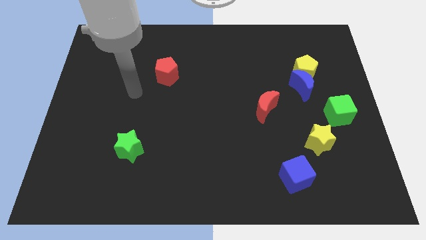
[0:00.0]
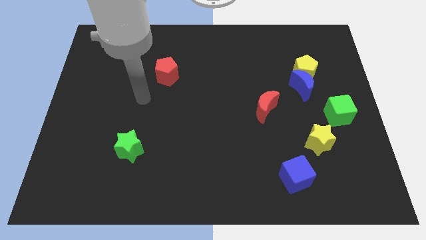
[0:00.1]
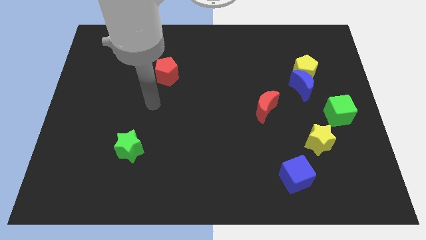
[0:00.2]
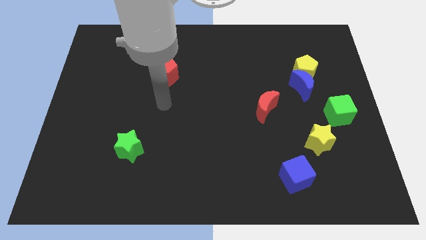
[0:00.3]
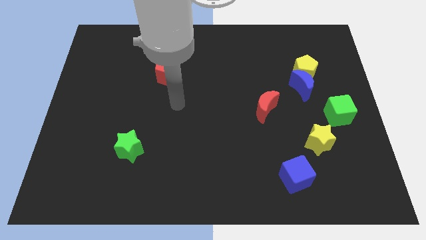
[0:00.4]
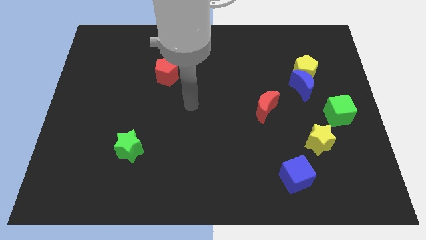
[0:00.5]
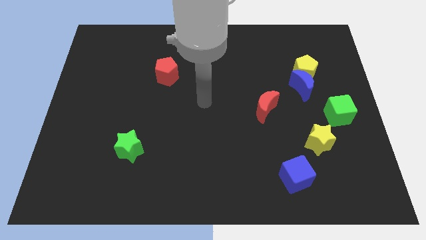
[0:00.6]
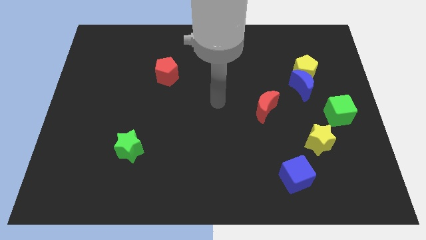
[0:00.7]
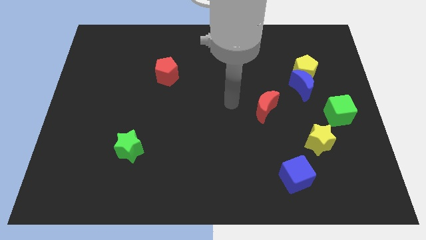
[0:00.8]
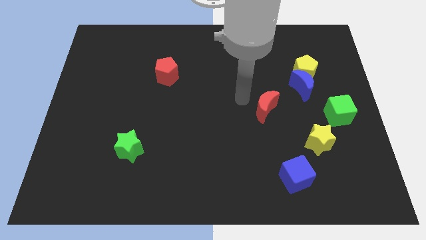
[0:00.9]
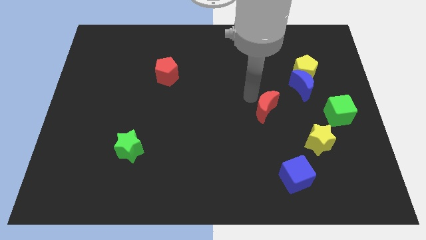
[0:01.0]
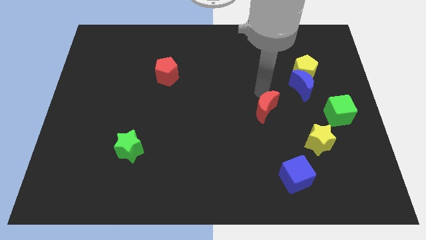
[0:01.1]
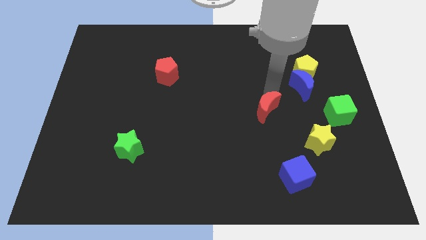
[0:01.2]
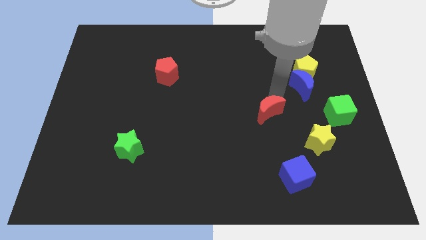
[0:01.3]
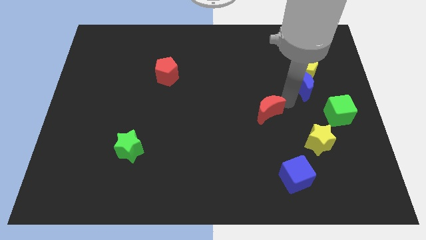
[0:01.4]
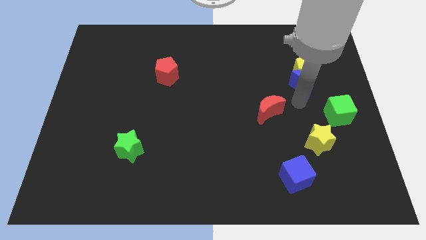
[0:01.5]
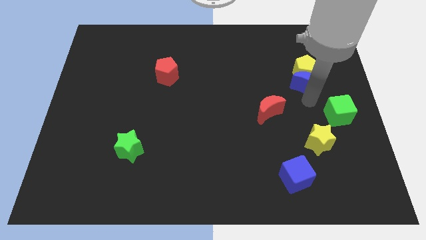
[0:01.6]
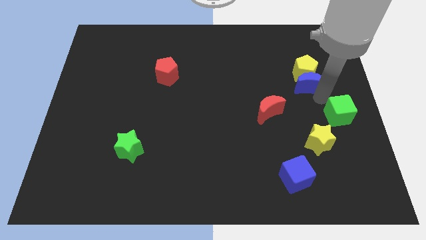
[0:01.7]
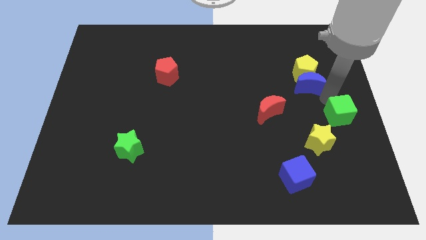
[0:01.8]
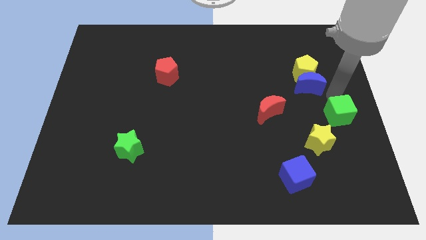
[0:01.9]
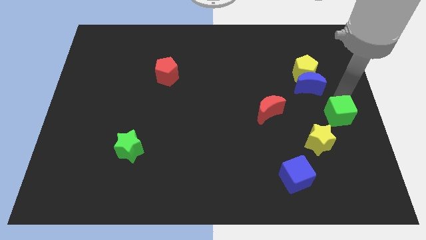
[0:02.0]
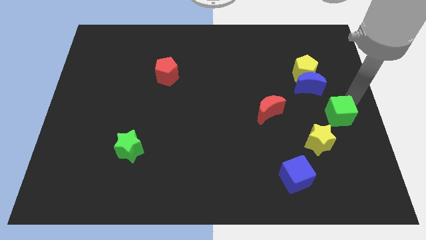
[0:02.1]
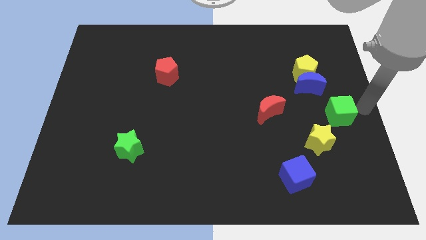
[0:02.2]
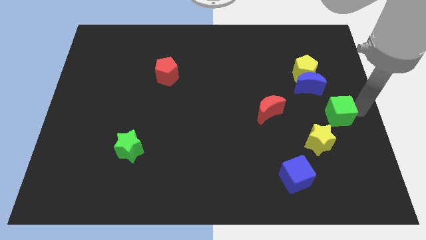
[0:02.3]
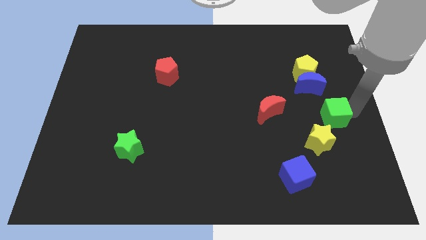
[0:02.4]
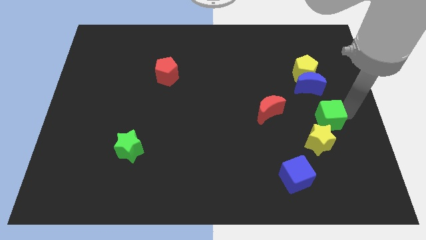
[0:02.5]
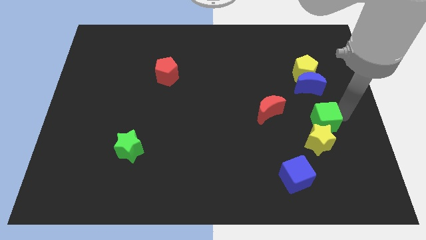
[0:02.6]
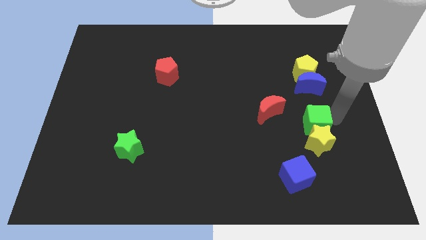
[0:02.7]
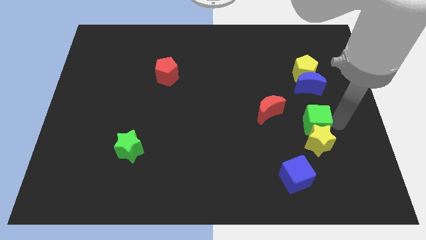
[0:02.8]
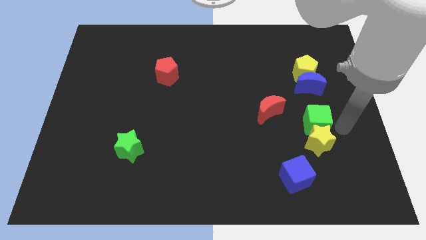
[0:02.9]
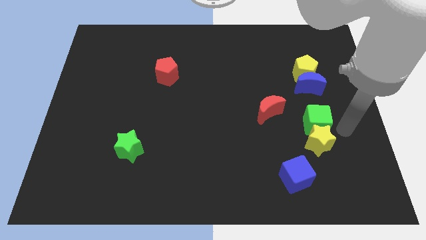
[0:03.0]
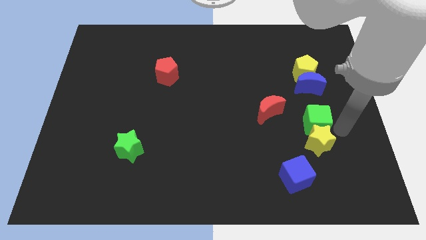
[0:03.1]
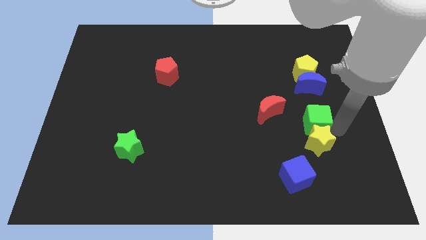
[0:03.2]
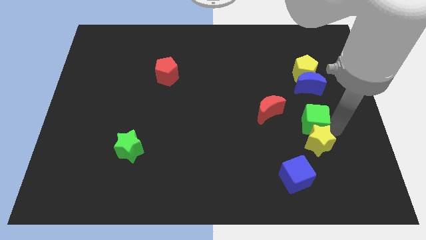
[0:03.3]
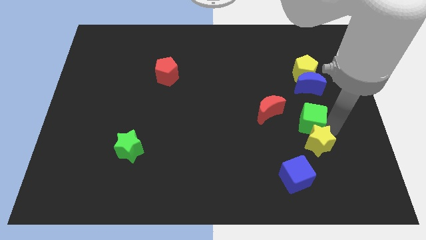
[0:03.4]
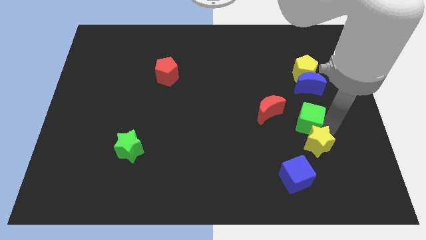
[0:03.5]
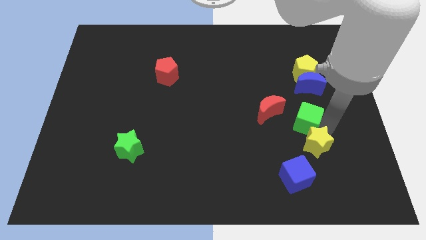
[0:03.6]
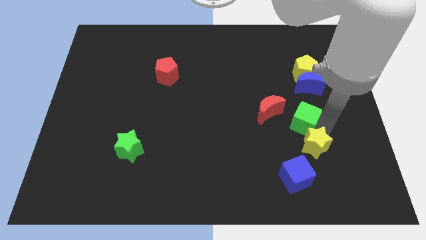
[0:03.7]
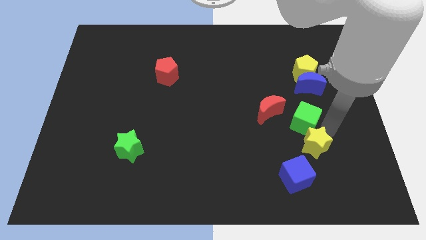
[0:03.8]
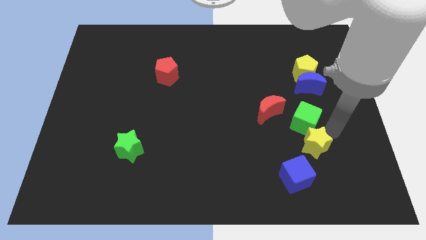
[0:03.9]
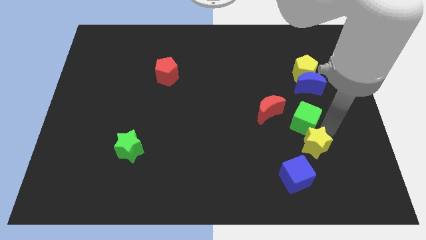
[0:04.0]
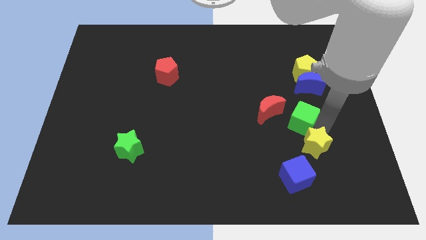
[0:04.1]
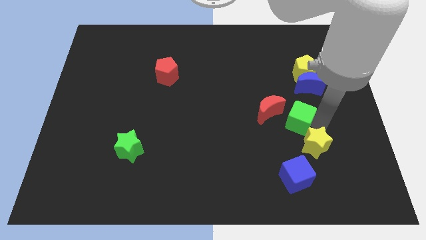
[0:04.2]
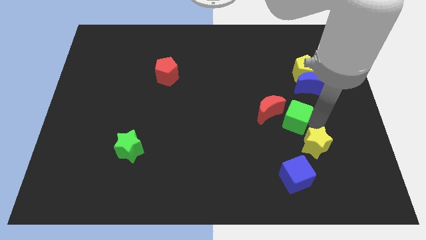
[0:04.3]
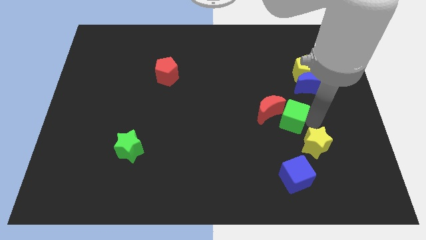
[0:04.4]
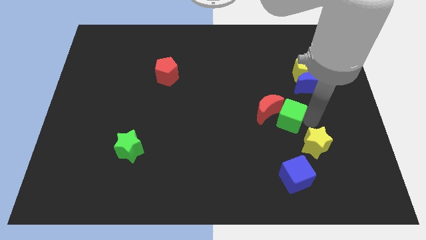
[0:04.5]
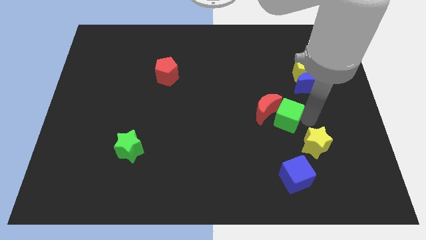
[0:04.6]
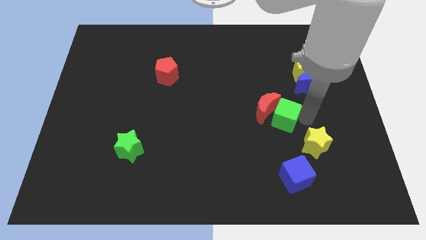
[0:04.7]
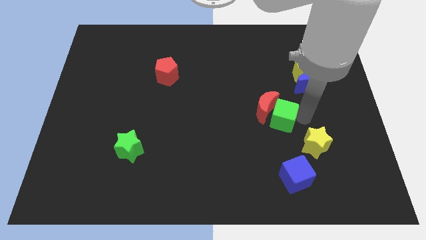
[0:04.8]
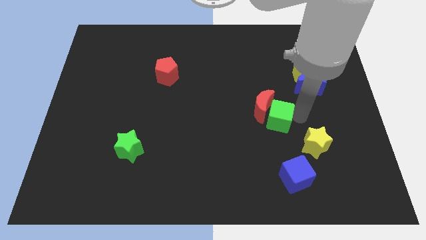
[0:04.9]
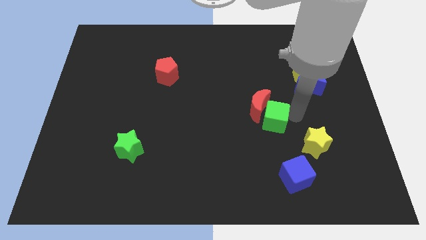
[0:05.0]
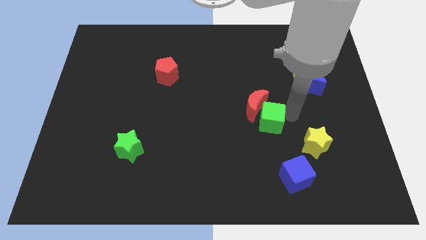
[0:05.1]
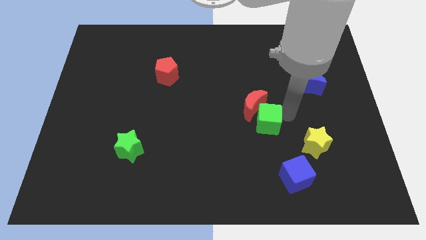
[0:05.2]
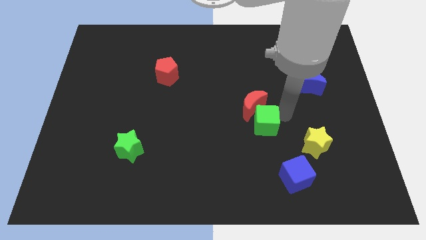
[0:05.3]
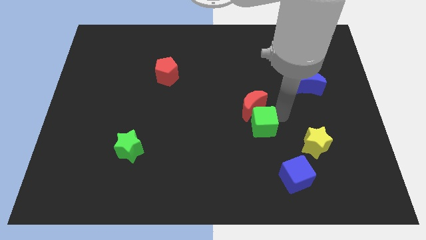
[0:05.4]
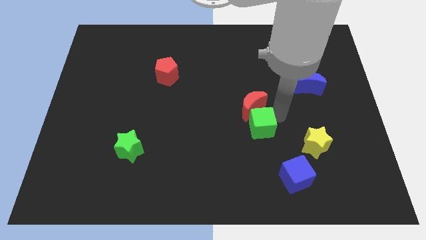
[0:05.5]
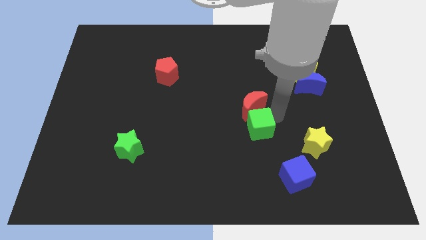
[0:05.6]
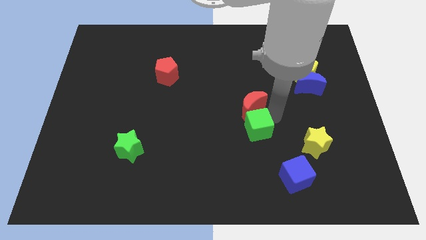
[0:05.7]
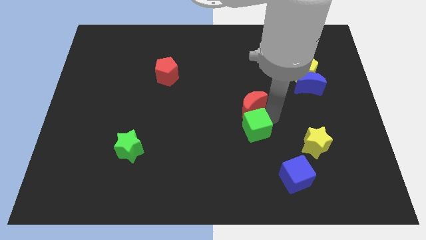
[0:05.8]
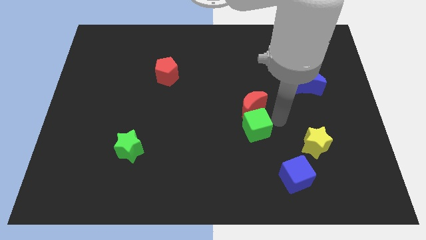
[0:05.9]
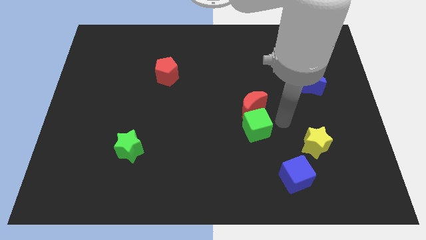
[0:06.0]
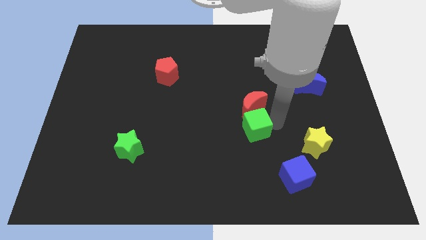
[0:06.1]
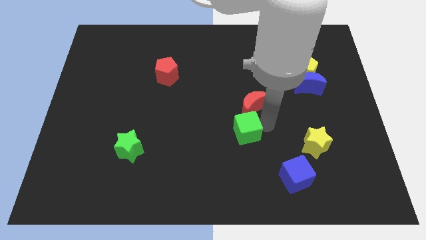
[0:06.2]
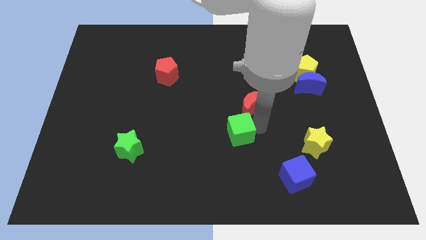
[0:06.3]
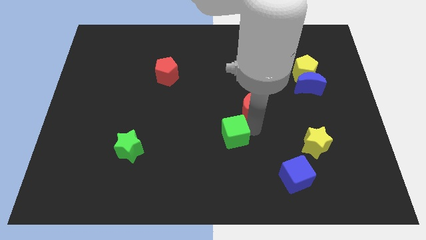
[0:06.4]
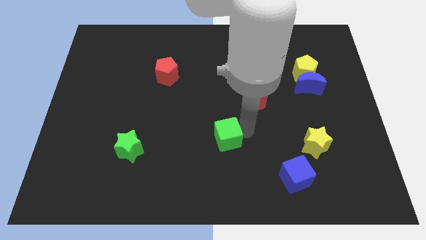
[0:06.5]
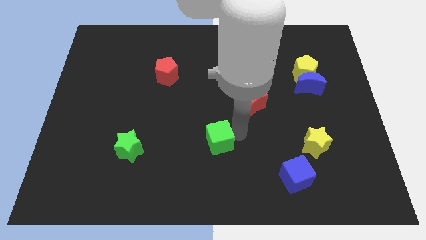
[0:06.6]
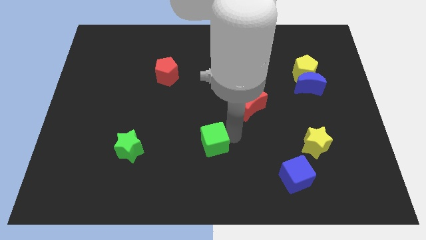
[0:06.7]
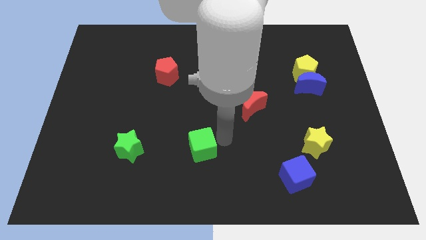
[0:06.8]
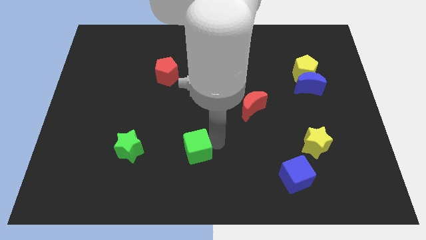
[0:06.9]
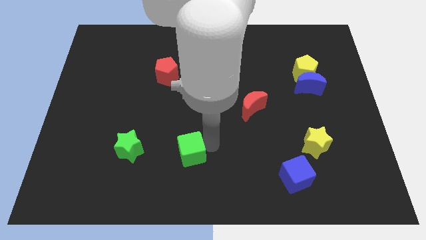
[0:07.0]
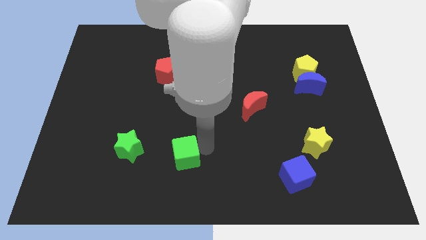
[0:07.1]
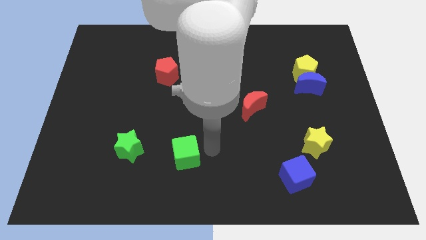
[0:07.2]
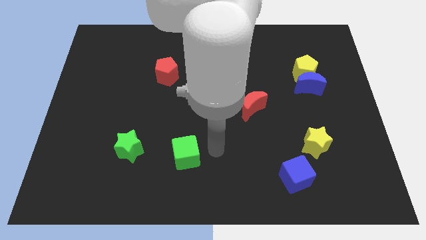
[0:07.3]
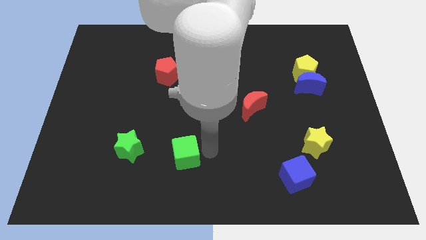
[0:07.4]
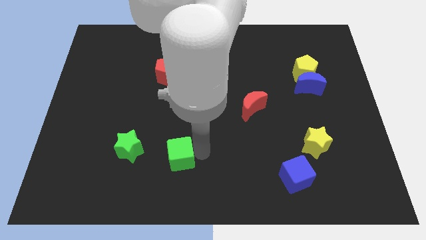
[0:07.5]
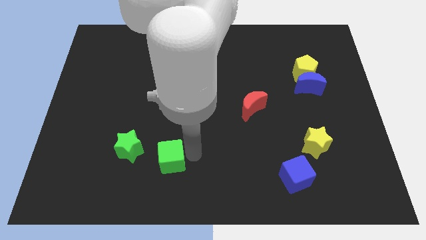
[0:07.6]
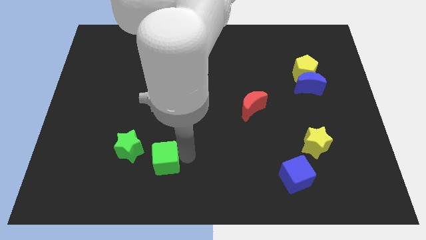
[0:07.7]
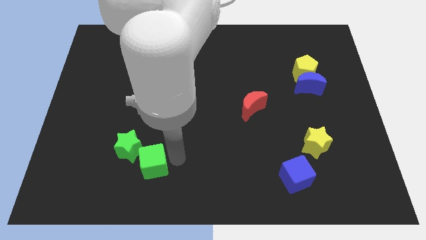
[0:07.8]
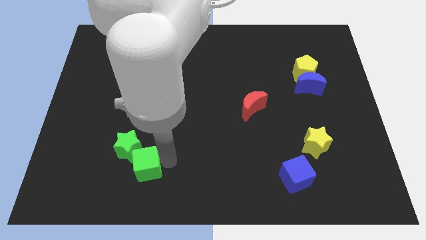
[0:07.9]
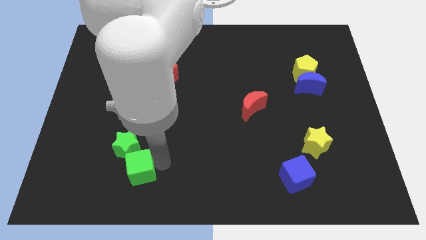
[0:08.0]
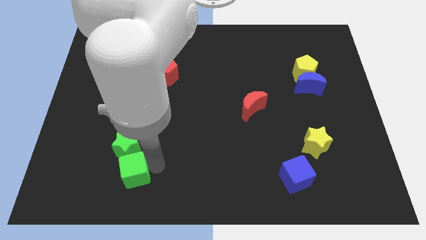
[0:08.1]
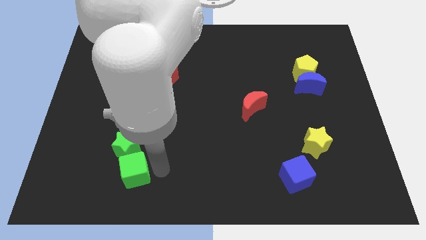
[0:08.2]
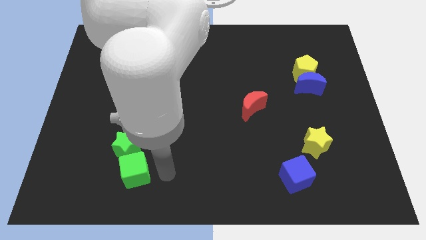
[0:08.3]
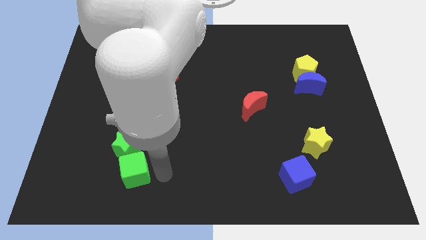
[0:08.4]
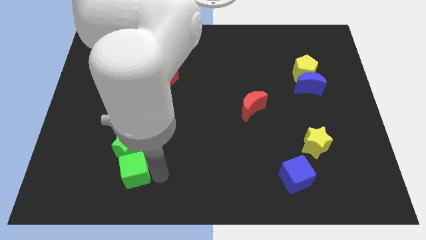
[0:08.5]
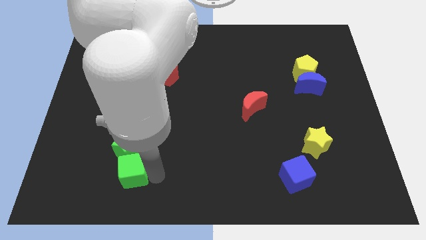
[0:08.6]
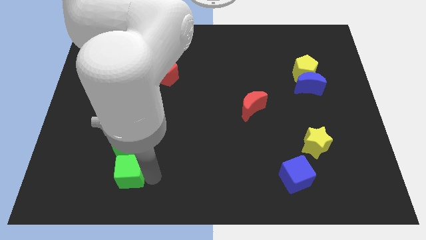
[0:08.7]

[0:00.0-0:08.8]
put the green cube diagonally down and to the left of the green star
